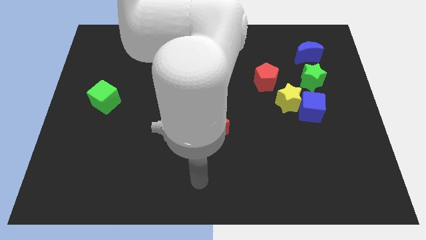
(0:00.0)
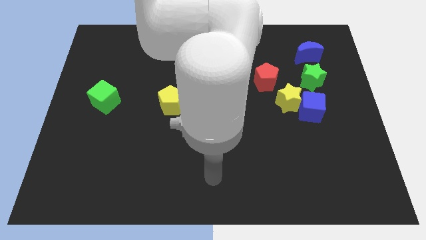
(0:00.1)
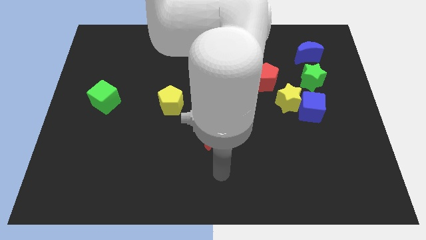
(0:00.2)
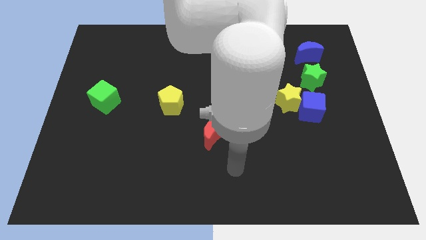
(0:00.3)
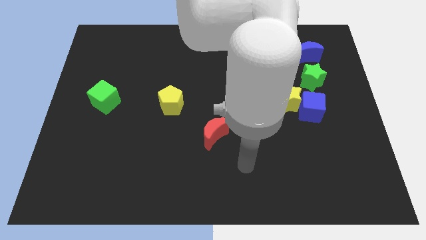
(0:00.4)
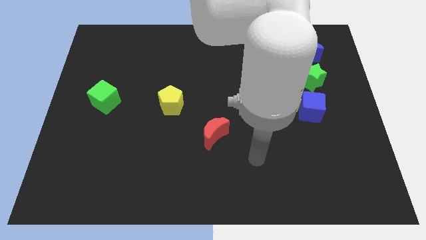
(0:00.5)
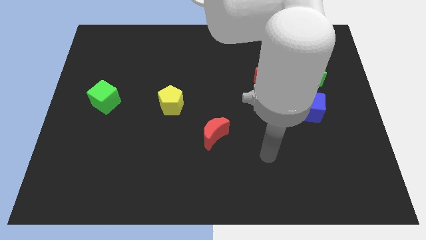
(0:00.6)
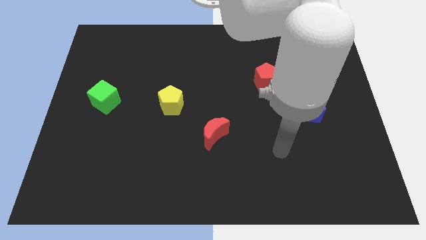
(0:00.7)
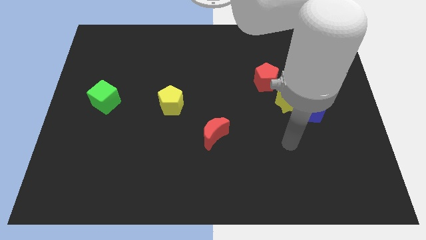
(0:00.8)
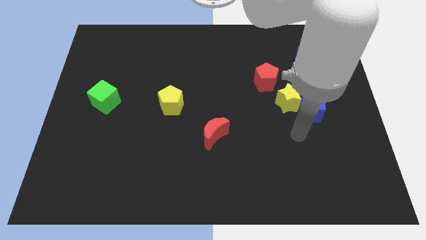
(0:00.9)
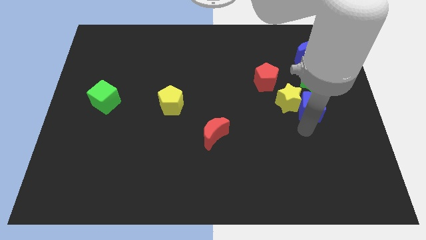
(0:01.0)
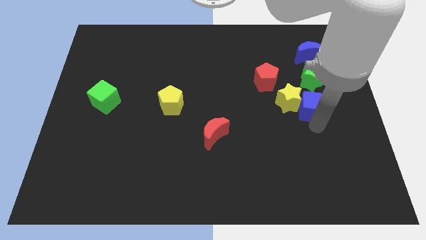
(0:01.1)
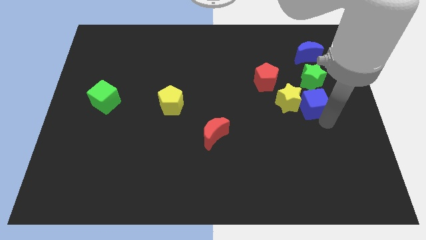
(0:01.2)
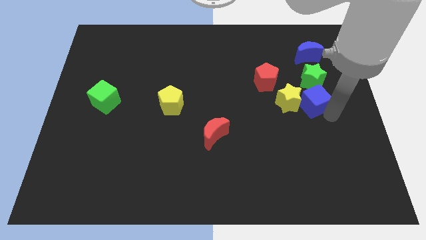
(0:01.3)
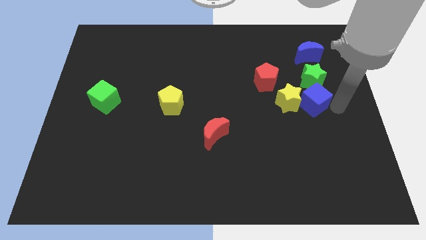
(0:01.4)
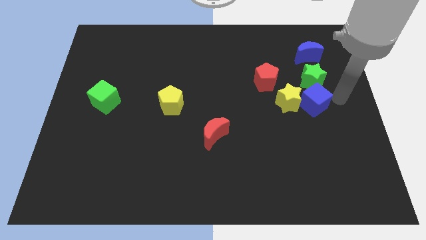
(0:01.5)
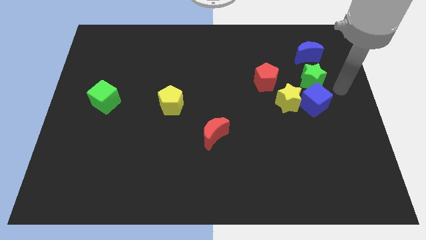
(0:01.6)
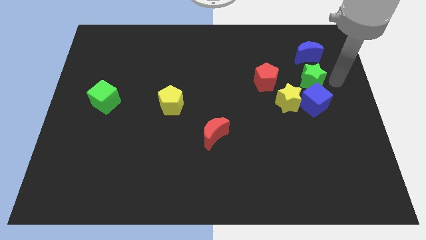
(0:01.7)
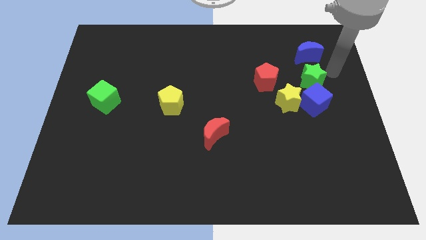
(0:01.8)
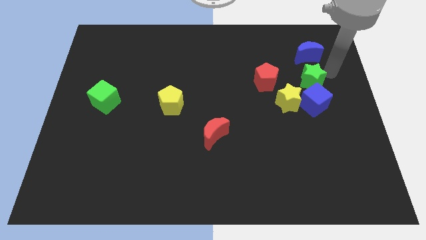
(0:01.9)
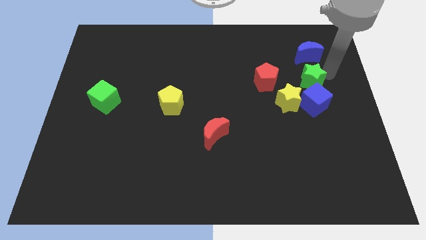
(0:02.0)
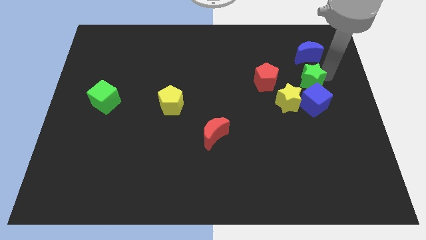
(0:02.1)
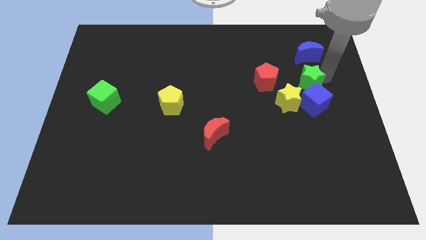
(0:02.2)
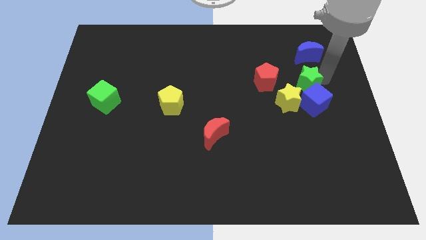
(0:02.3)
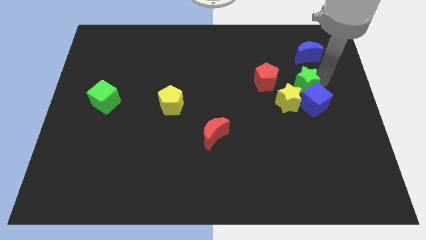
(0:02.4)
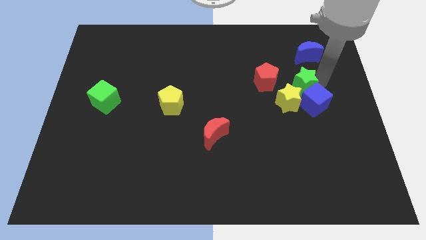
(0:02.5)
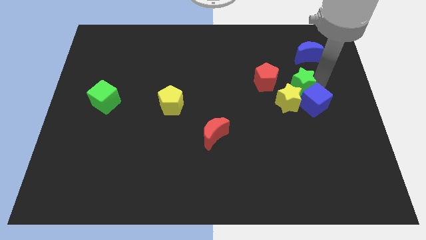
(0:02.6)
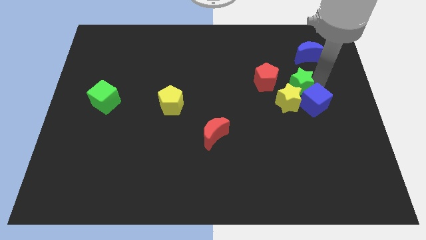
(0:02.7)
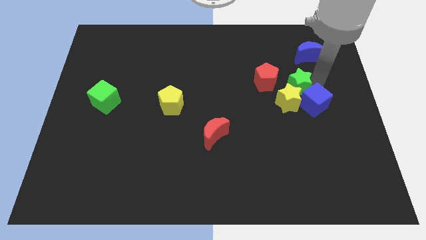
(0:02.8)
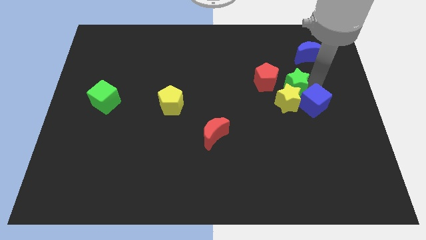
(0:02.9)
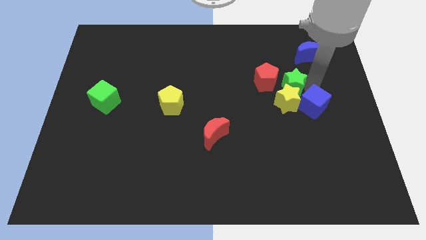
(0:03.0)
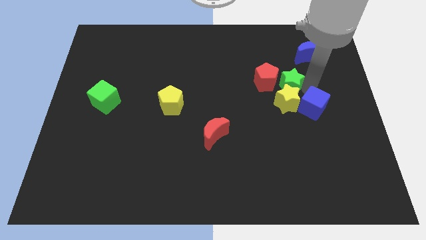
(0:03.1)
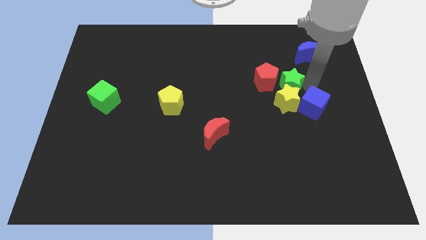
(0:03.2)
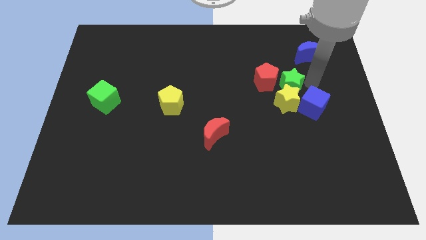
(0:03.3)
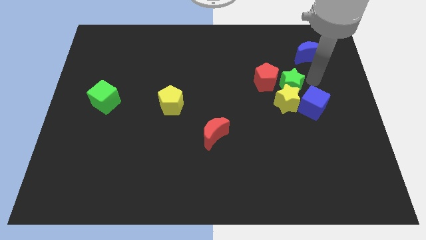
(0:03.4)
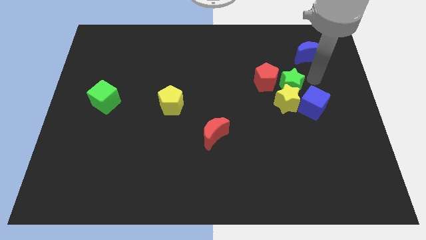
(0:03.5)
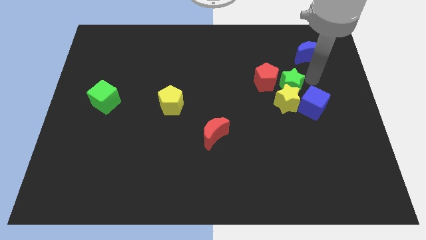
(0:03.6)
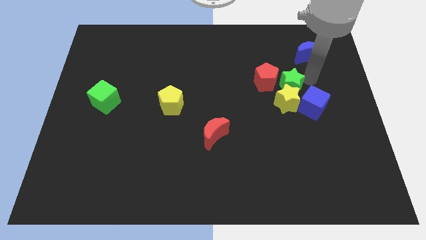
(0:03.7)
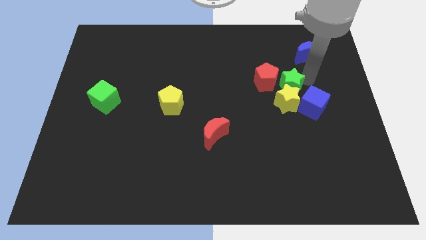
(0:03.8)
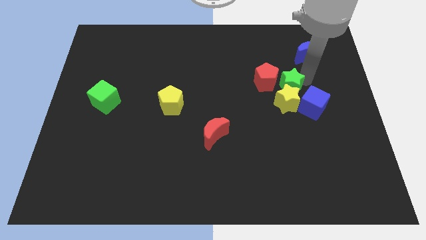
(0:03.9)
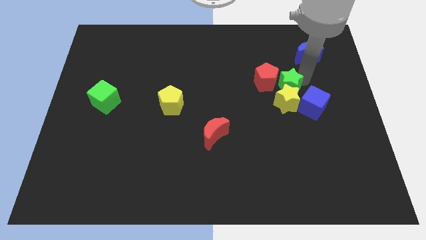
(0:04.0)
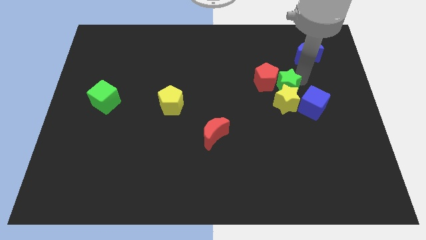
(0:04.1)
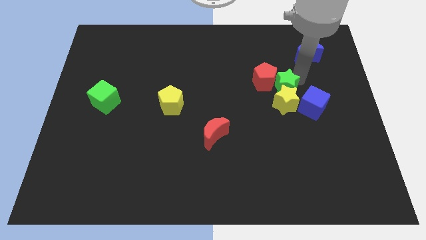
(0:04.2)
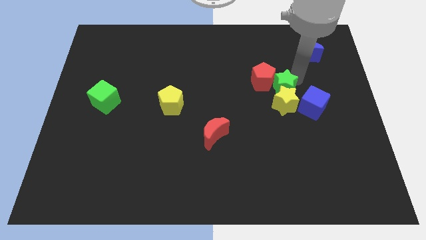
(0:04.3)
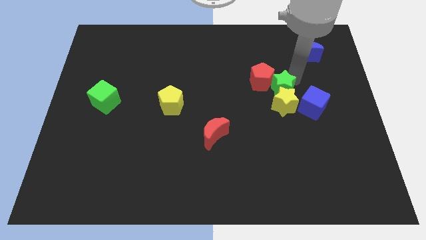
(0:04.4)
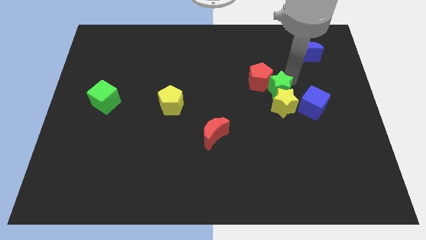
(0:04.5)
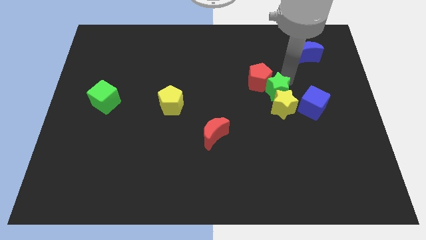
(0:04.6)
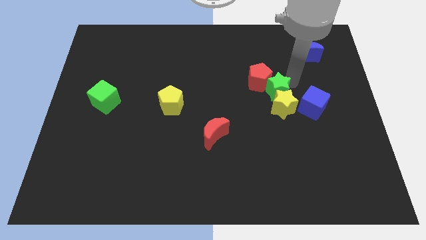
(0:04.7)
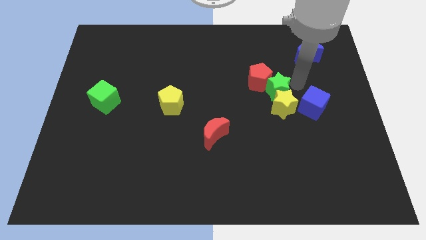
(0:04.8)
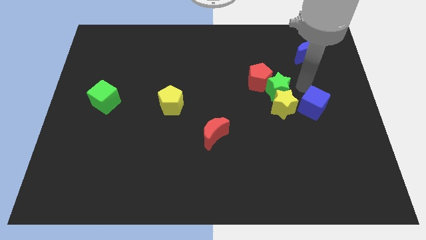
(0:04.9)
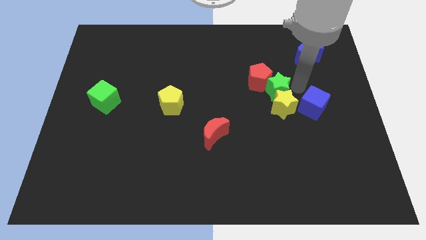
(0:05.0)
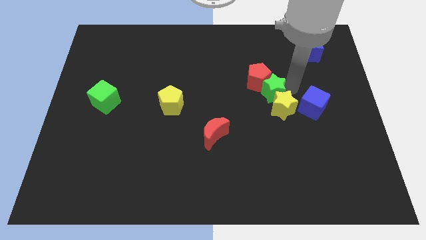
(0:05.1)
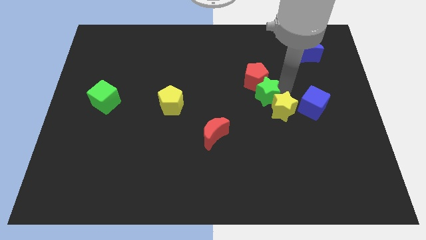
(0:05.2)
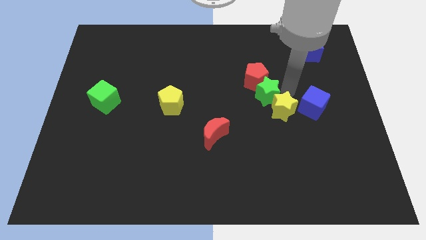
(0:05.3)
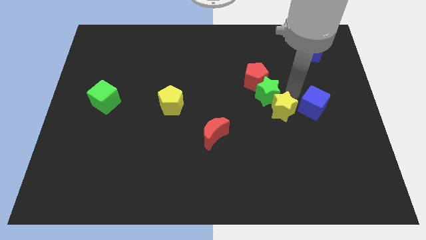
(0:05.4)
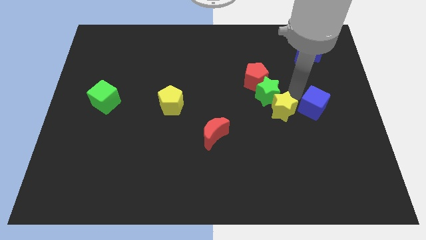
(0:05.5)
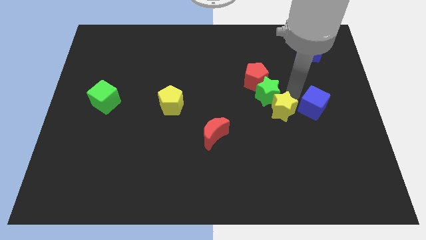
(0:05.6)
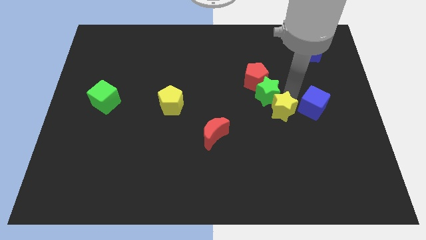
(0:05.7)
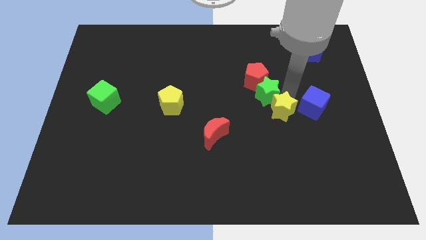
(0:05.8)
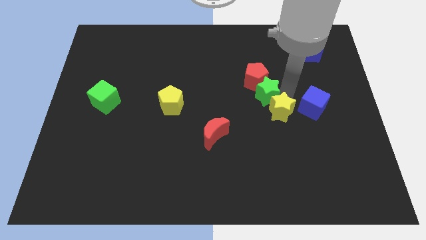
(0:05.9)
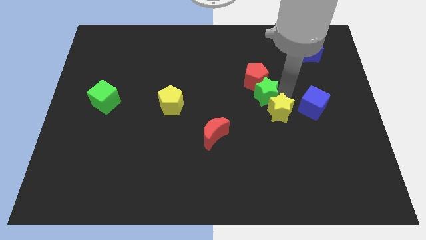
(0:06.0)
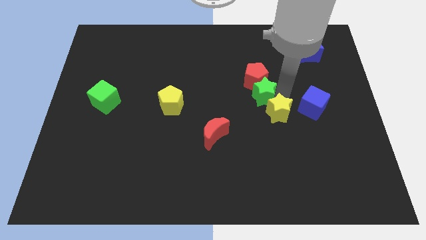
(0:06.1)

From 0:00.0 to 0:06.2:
put the green star to the middle

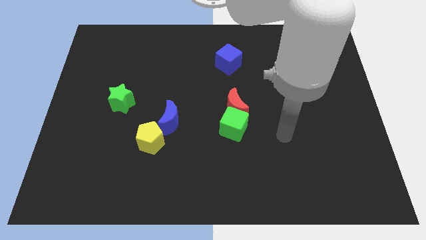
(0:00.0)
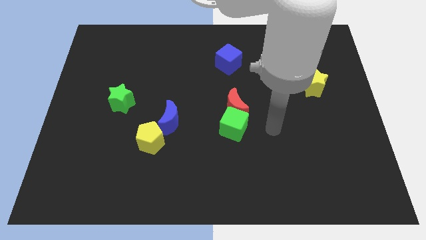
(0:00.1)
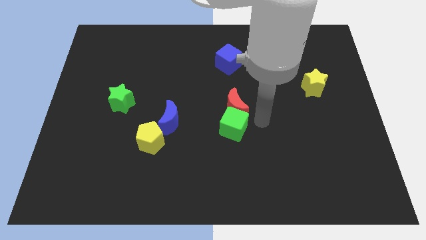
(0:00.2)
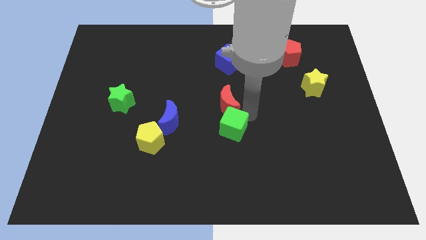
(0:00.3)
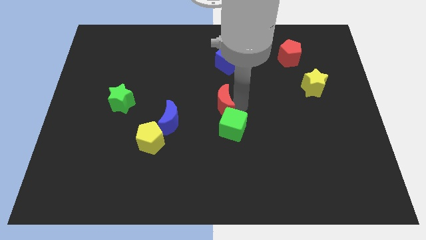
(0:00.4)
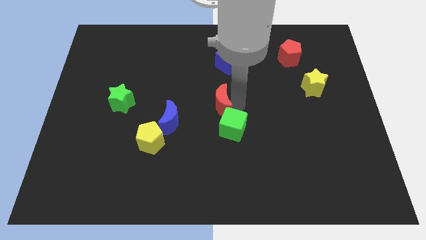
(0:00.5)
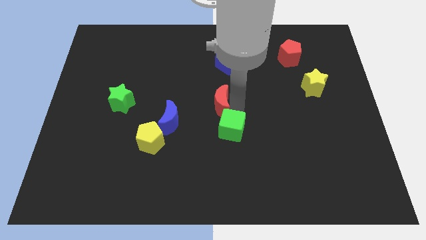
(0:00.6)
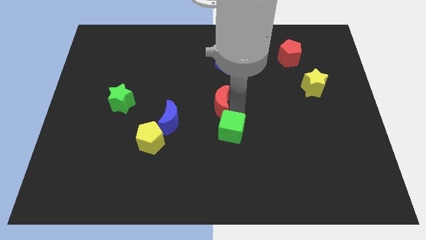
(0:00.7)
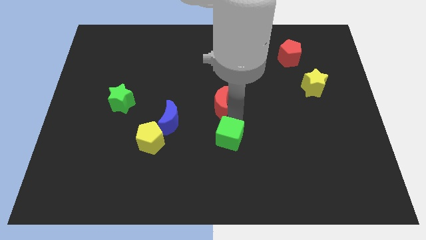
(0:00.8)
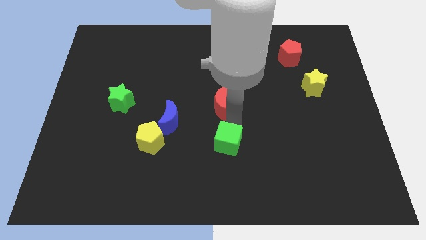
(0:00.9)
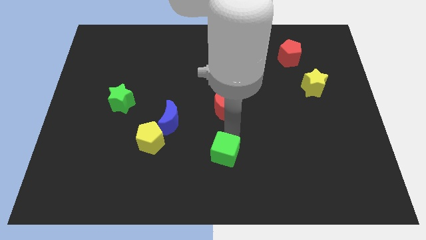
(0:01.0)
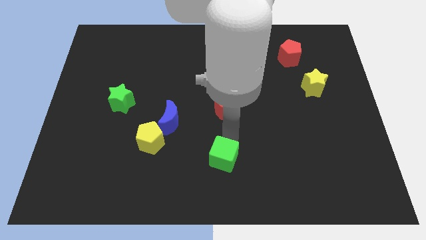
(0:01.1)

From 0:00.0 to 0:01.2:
push the green cube to the bottom
